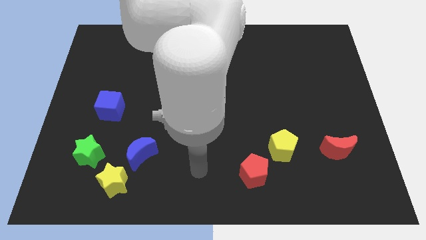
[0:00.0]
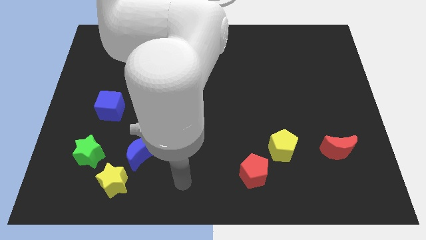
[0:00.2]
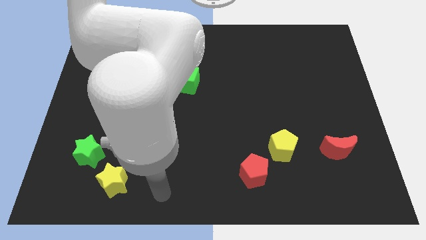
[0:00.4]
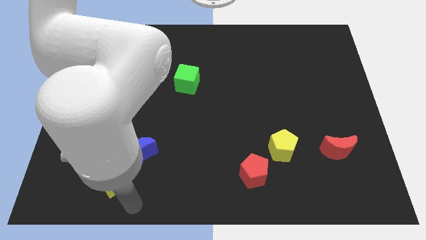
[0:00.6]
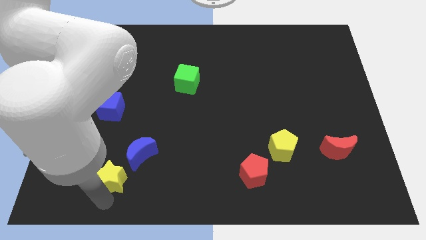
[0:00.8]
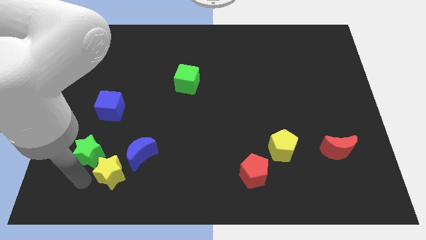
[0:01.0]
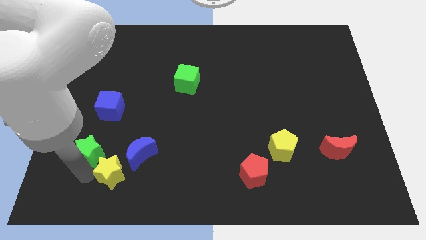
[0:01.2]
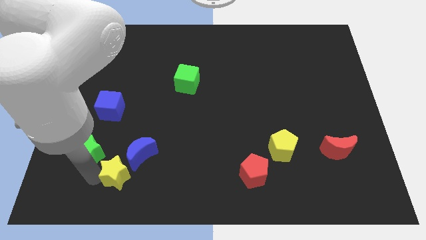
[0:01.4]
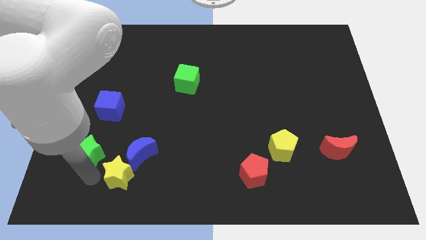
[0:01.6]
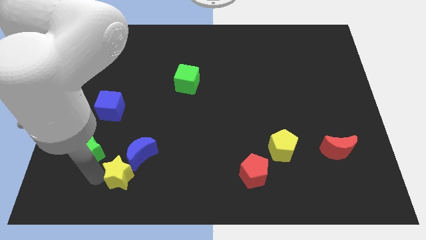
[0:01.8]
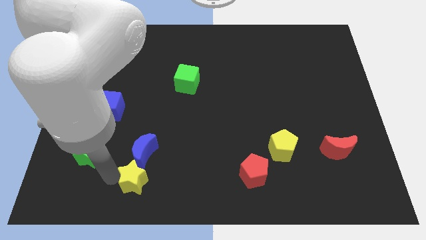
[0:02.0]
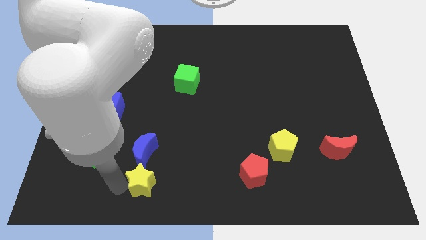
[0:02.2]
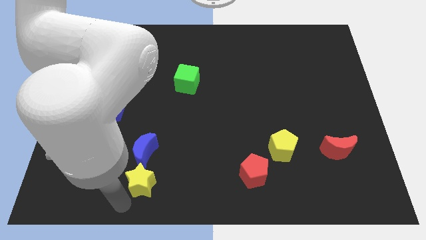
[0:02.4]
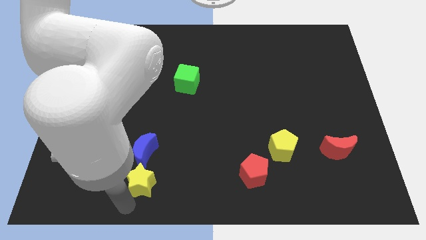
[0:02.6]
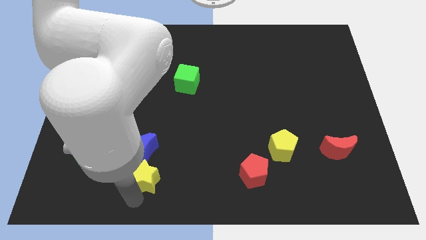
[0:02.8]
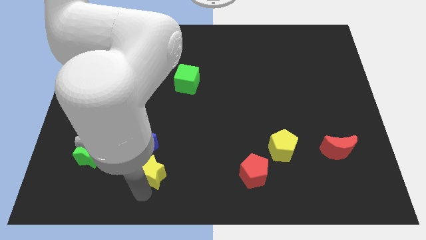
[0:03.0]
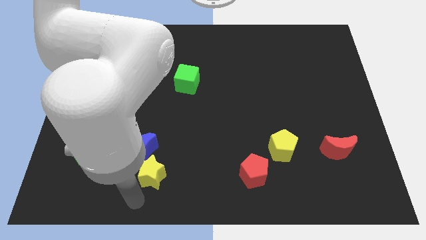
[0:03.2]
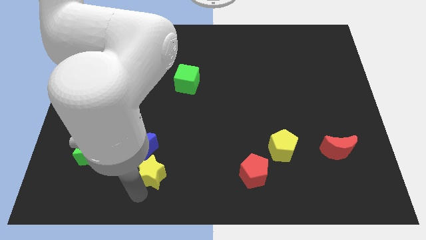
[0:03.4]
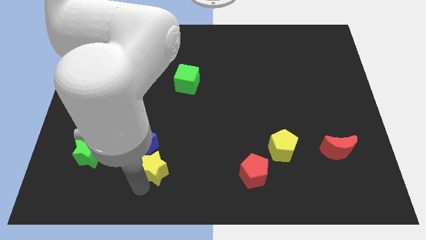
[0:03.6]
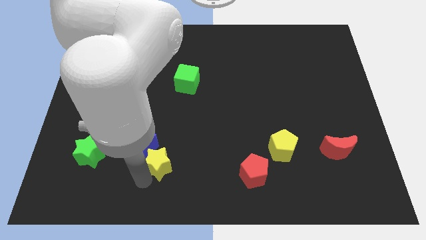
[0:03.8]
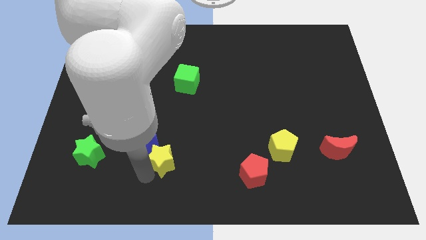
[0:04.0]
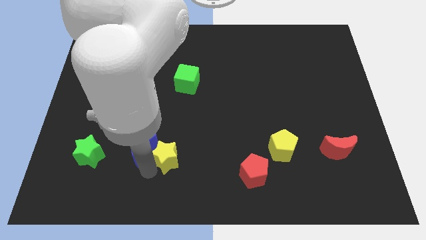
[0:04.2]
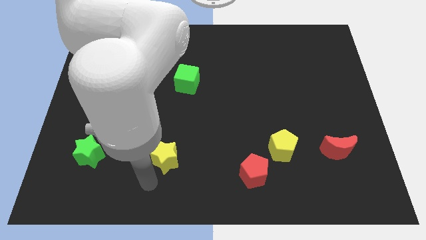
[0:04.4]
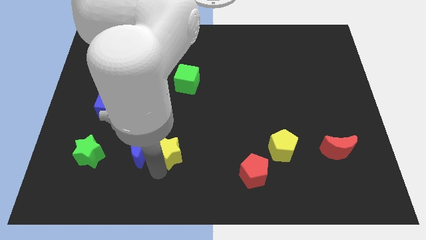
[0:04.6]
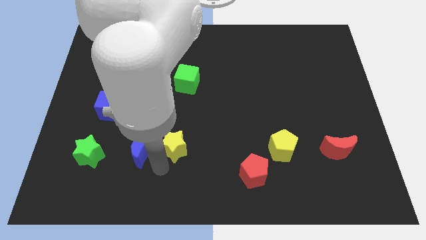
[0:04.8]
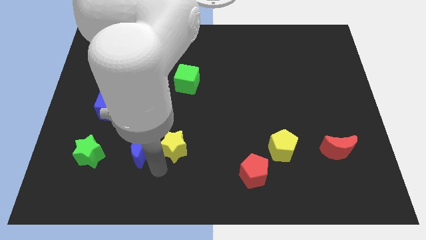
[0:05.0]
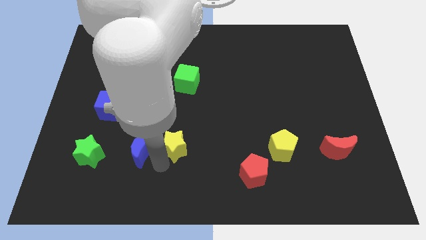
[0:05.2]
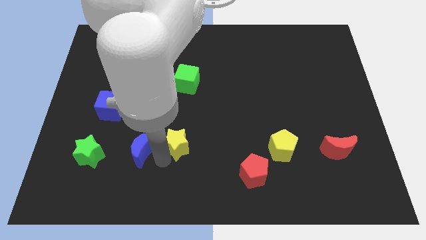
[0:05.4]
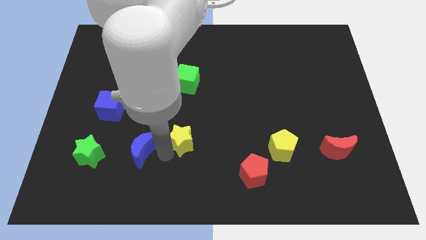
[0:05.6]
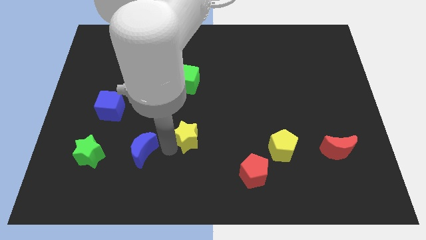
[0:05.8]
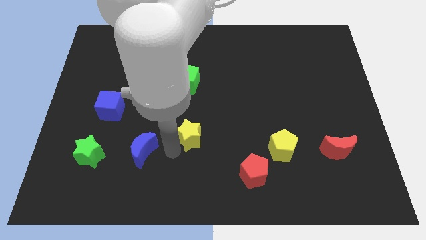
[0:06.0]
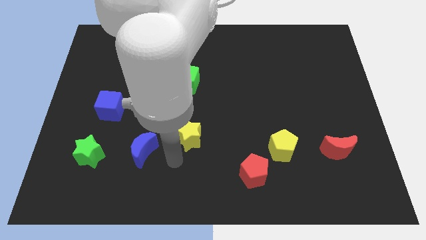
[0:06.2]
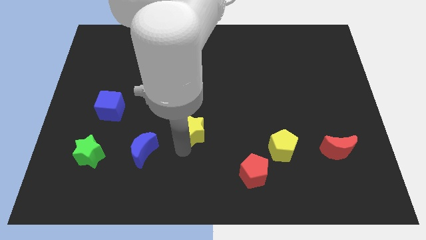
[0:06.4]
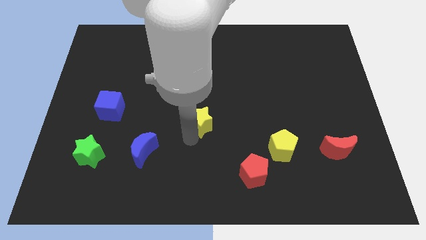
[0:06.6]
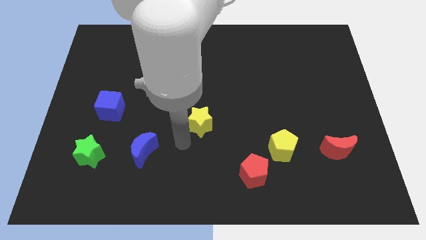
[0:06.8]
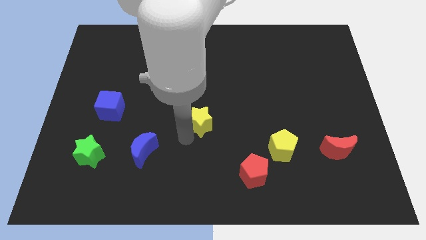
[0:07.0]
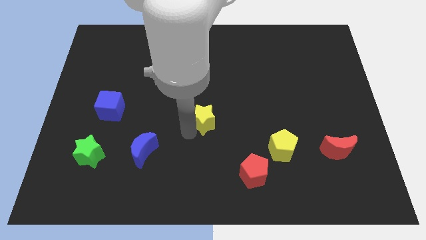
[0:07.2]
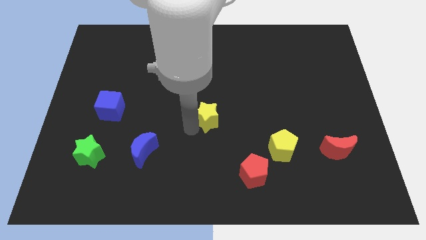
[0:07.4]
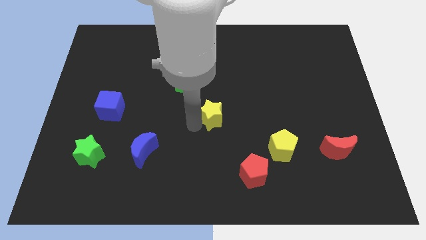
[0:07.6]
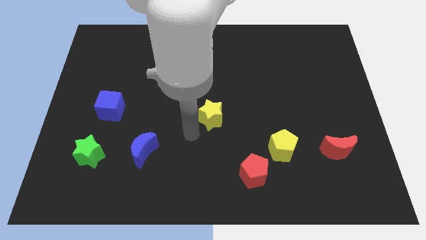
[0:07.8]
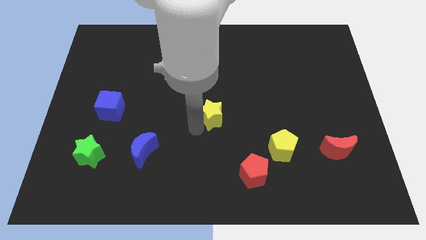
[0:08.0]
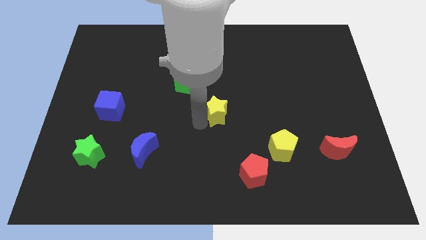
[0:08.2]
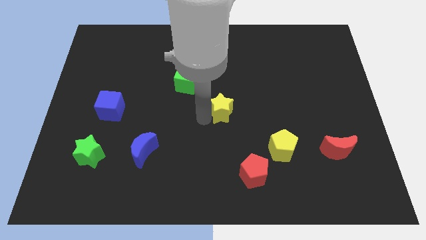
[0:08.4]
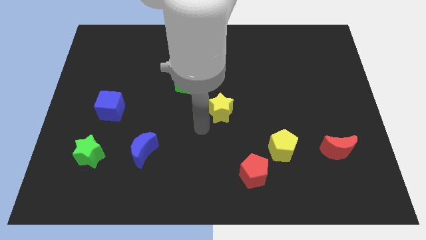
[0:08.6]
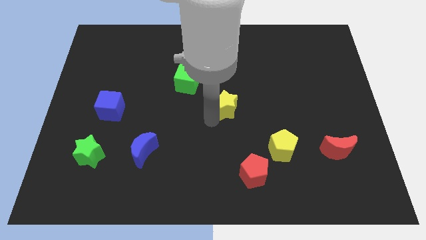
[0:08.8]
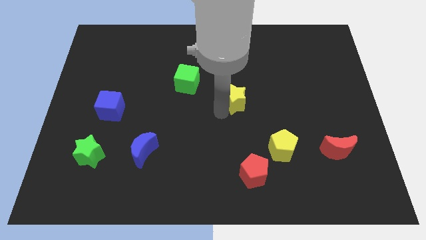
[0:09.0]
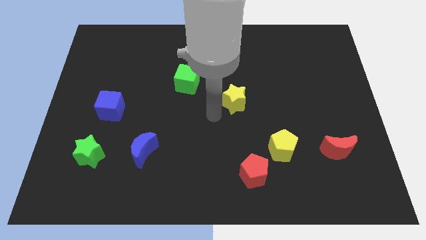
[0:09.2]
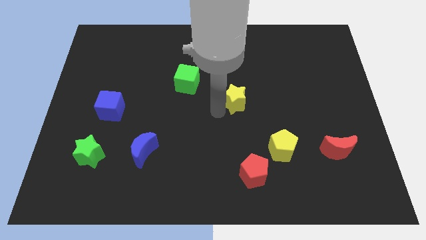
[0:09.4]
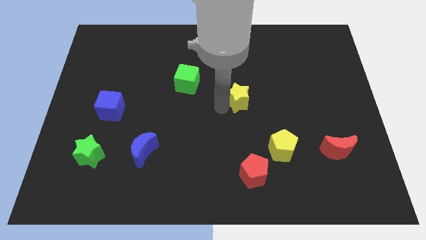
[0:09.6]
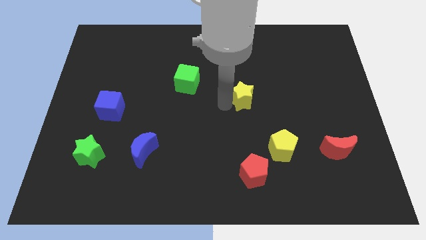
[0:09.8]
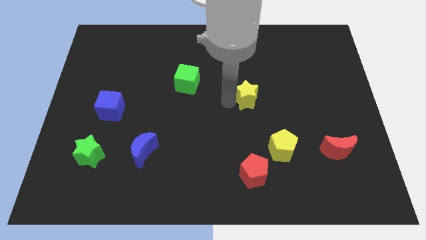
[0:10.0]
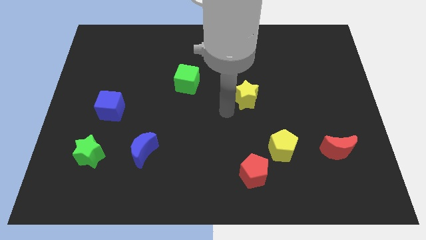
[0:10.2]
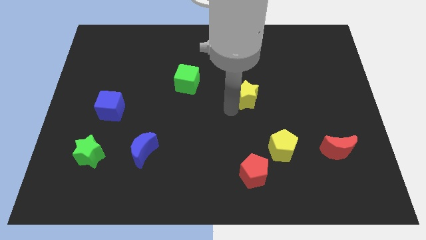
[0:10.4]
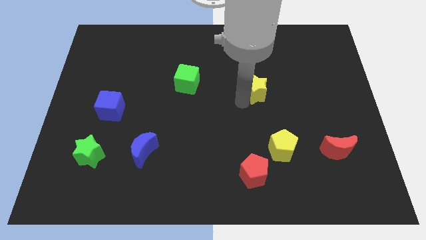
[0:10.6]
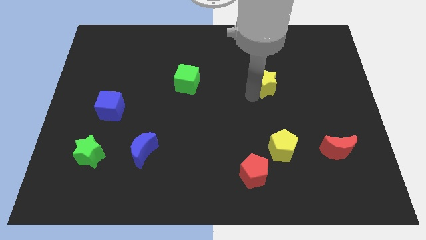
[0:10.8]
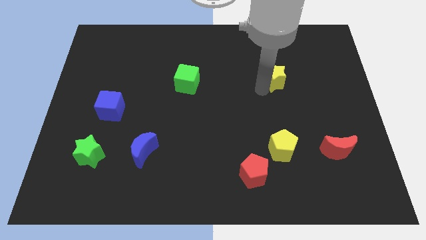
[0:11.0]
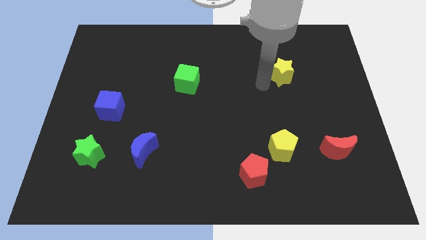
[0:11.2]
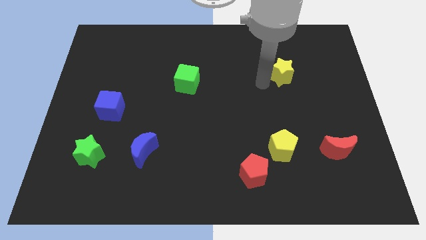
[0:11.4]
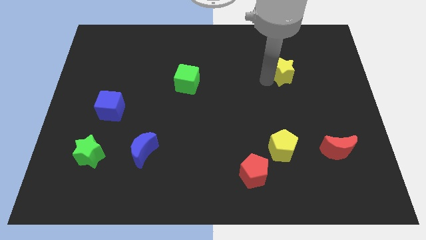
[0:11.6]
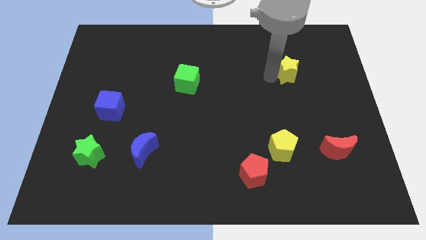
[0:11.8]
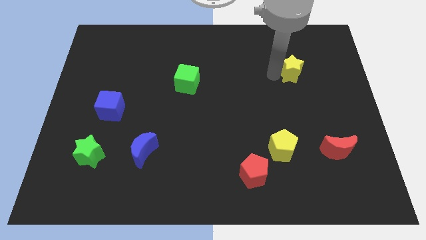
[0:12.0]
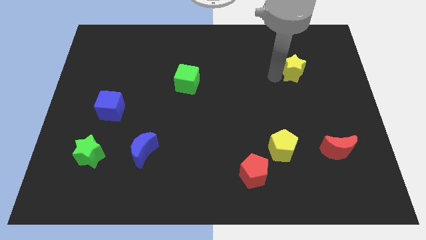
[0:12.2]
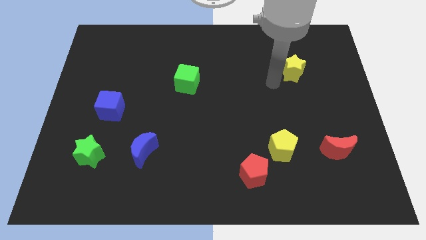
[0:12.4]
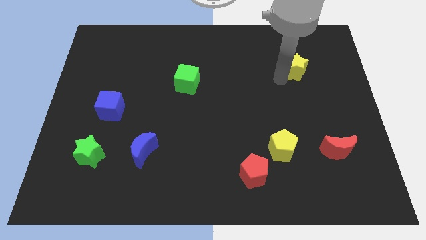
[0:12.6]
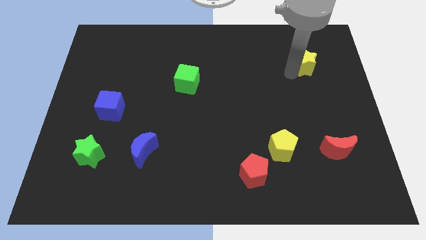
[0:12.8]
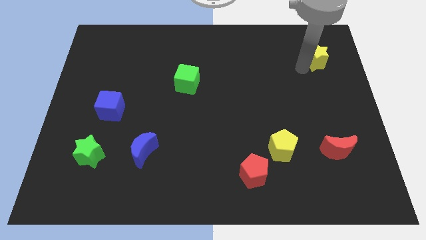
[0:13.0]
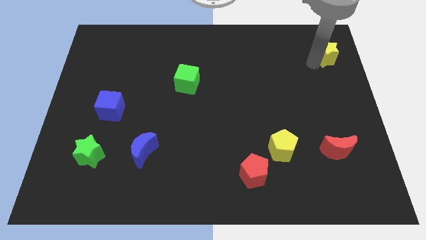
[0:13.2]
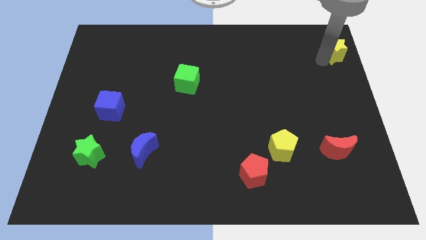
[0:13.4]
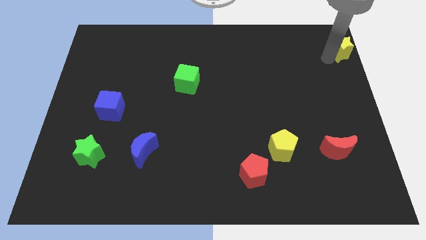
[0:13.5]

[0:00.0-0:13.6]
put the yellow star to the top right
